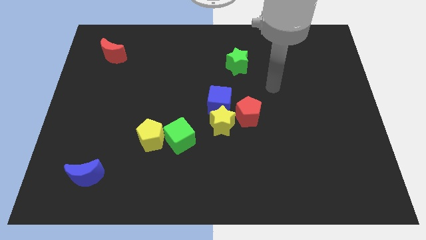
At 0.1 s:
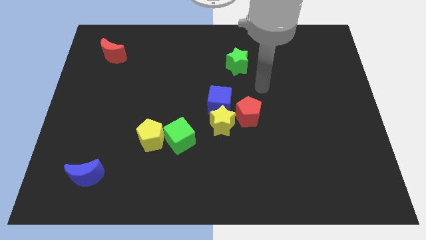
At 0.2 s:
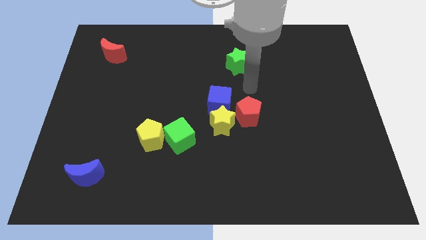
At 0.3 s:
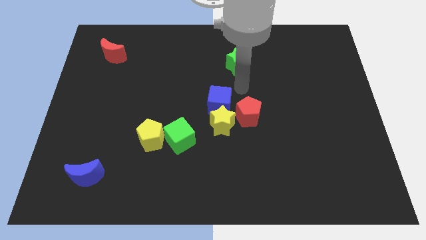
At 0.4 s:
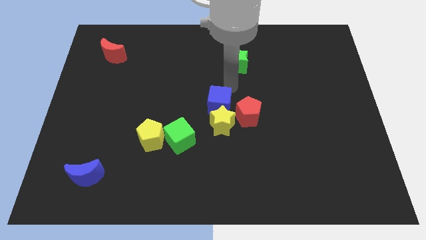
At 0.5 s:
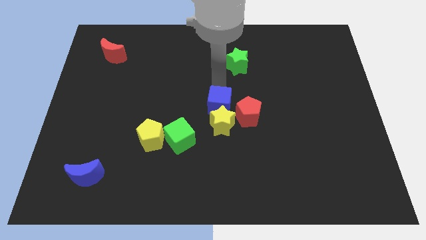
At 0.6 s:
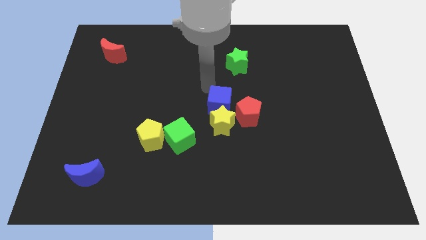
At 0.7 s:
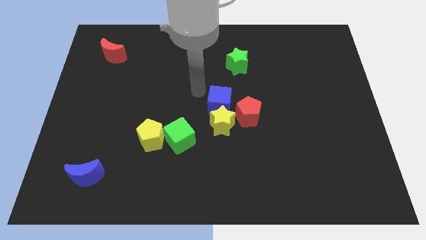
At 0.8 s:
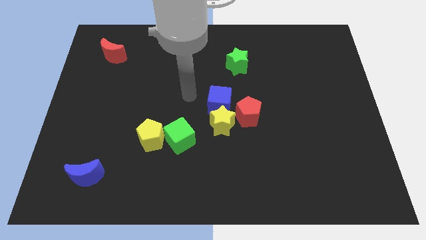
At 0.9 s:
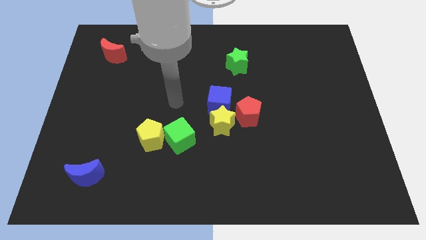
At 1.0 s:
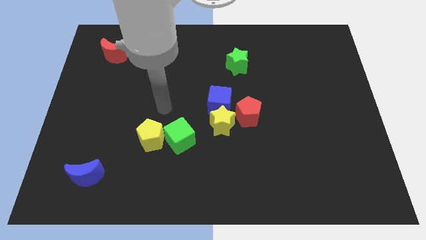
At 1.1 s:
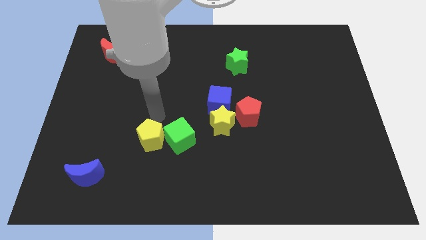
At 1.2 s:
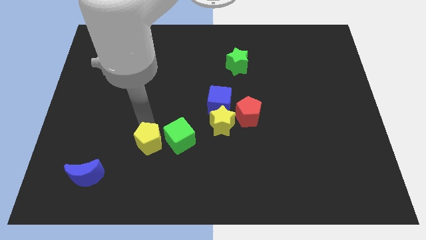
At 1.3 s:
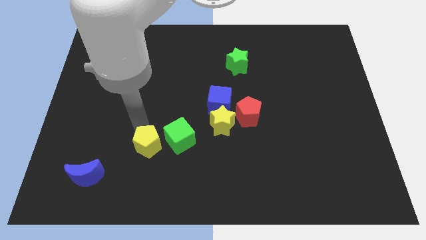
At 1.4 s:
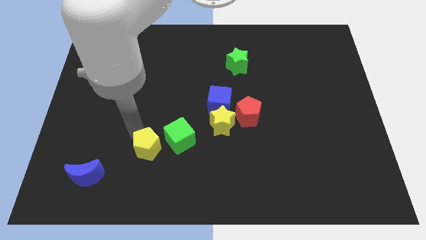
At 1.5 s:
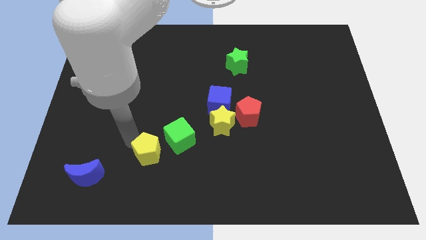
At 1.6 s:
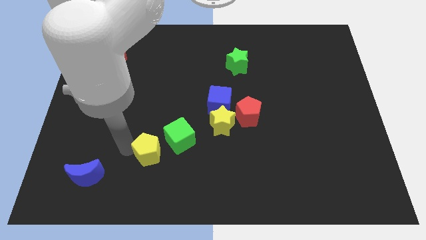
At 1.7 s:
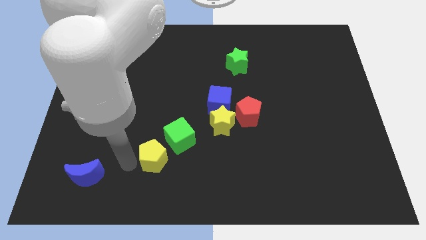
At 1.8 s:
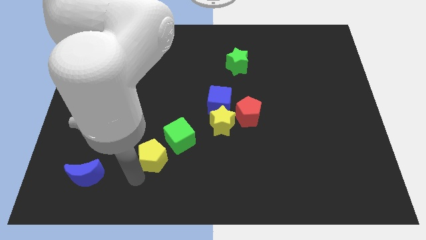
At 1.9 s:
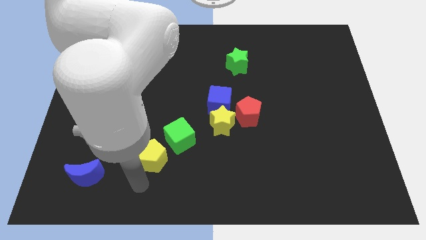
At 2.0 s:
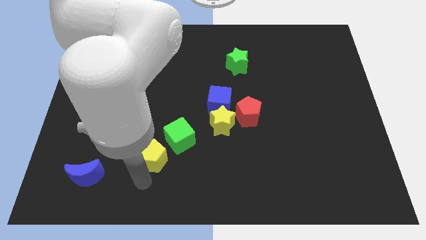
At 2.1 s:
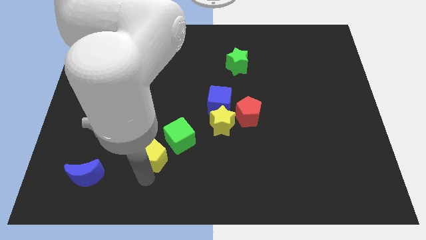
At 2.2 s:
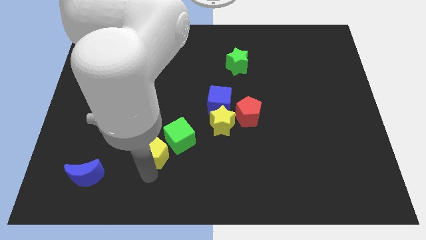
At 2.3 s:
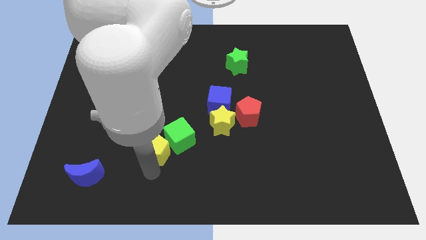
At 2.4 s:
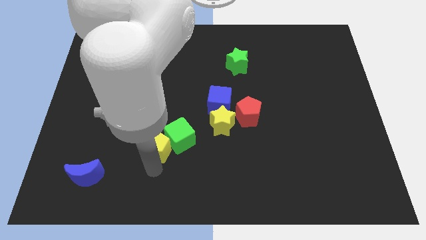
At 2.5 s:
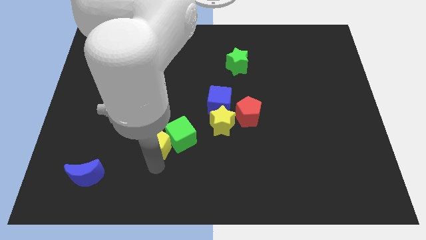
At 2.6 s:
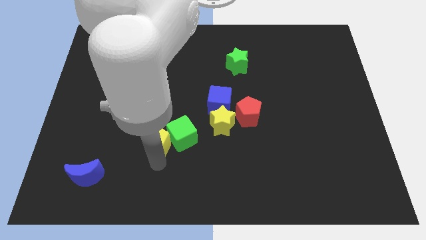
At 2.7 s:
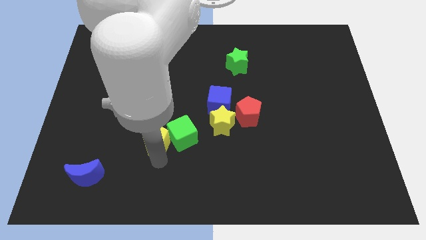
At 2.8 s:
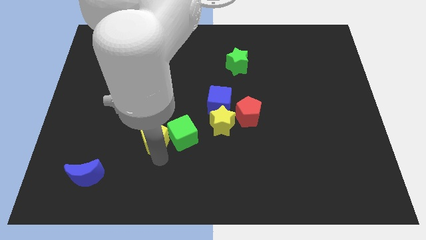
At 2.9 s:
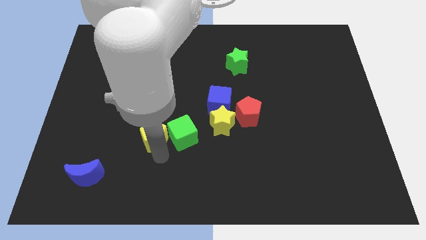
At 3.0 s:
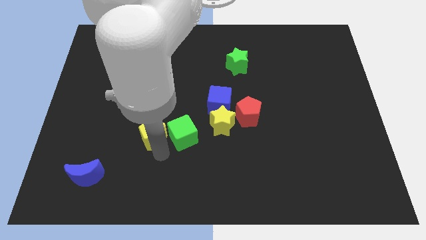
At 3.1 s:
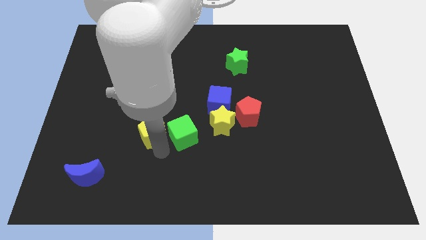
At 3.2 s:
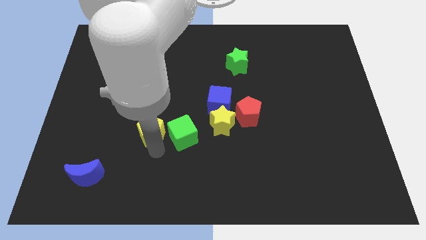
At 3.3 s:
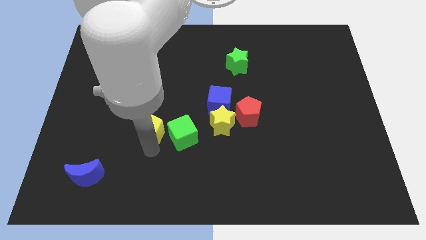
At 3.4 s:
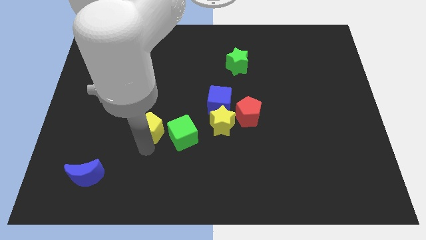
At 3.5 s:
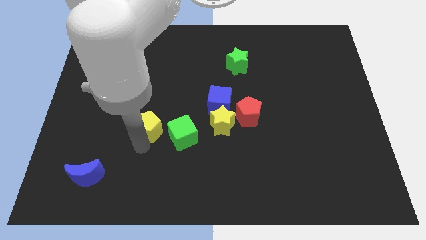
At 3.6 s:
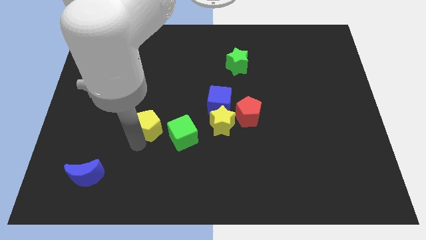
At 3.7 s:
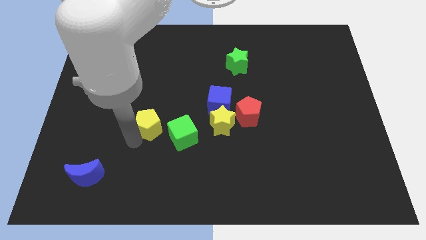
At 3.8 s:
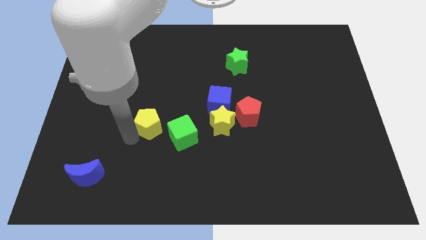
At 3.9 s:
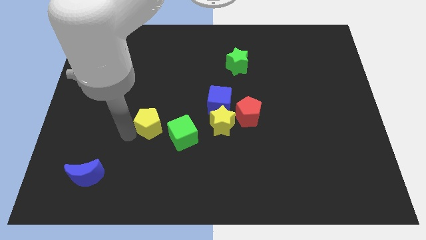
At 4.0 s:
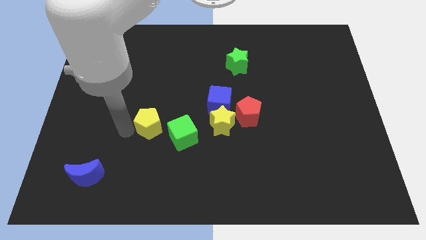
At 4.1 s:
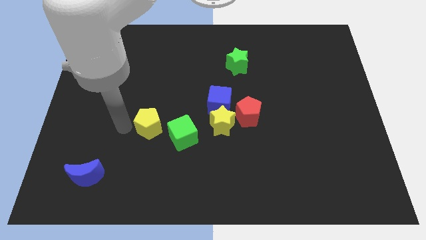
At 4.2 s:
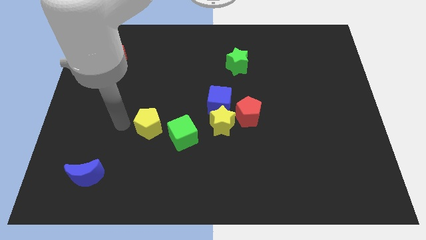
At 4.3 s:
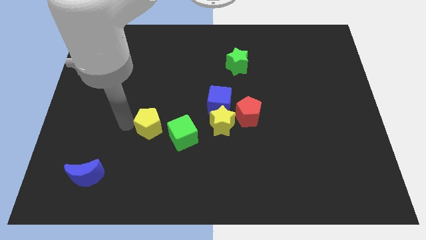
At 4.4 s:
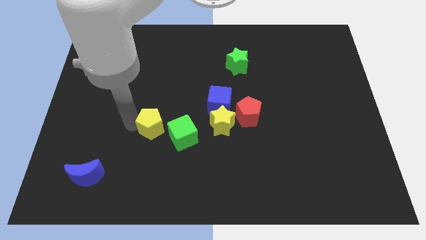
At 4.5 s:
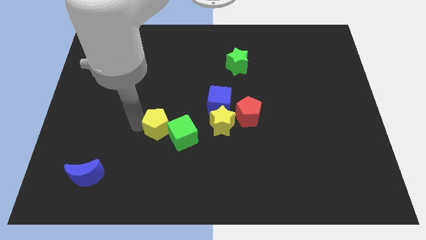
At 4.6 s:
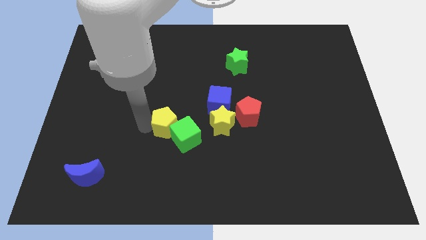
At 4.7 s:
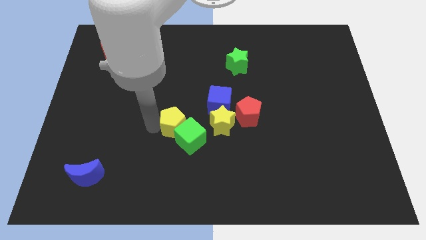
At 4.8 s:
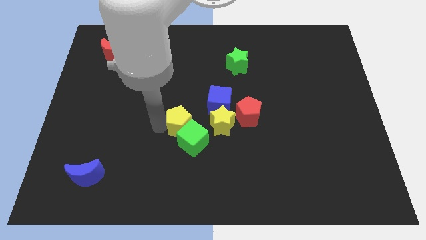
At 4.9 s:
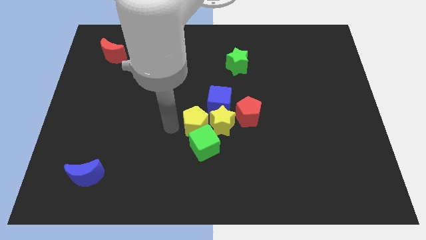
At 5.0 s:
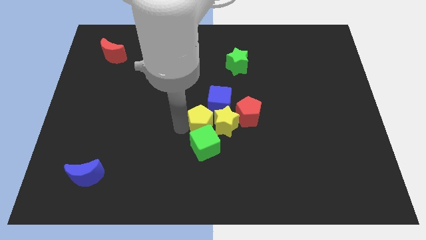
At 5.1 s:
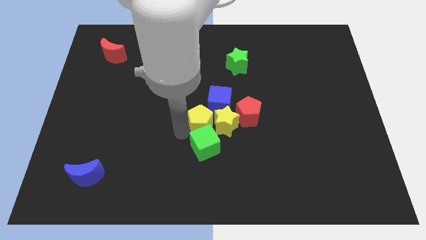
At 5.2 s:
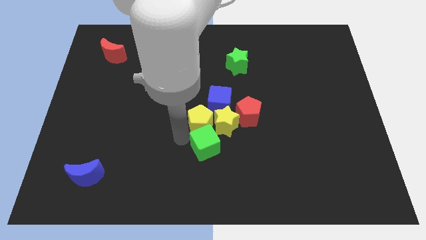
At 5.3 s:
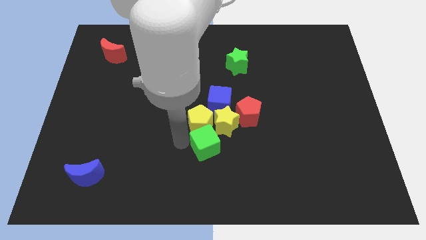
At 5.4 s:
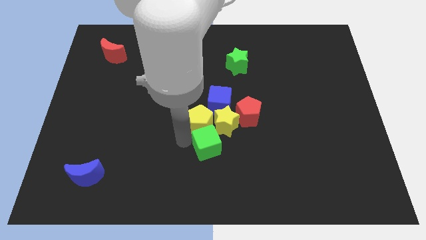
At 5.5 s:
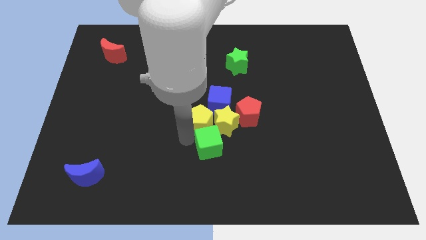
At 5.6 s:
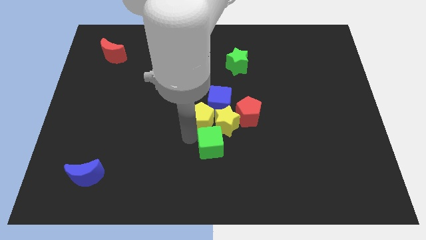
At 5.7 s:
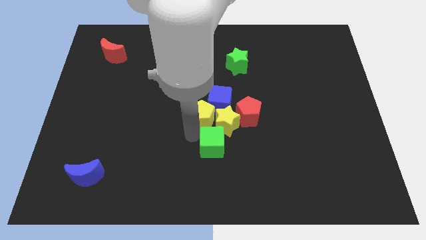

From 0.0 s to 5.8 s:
move the yellow pentagon to the blue cube

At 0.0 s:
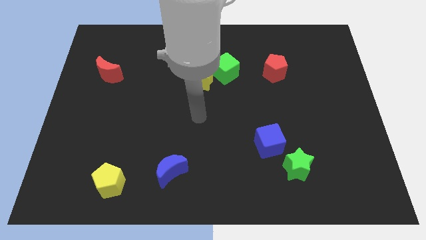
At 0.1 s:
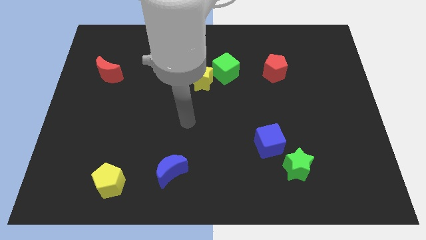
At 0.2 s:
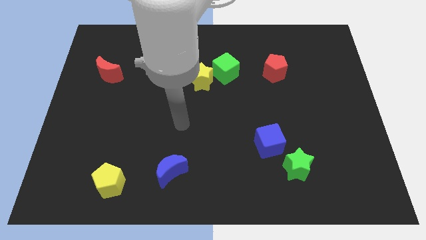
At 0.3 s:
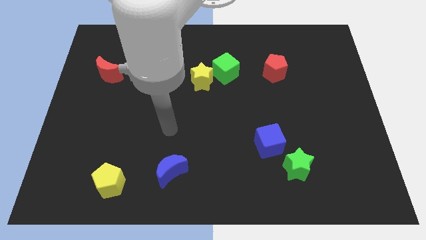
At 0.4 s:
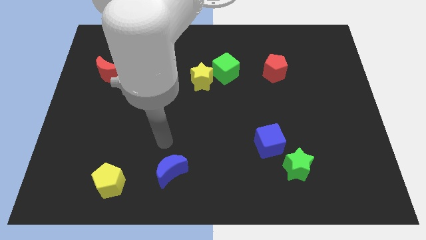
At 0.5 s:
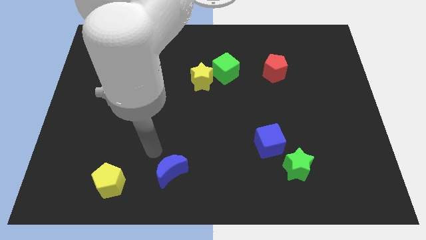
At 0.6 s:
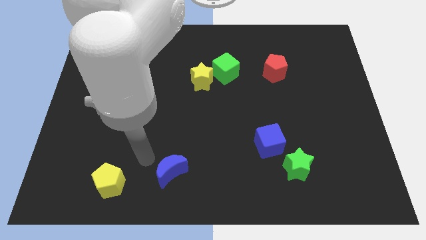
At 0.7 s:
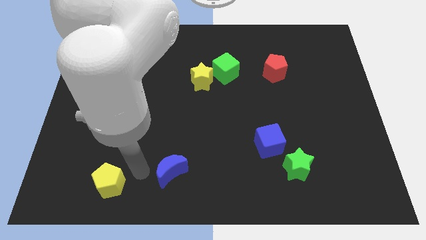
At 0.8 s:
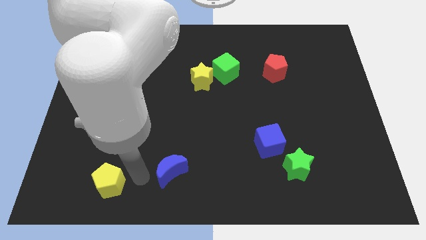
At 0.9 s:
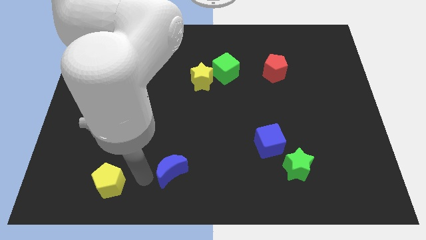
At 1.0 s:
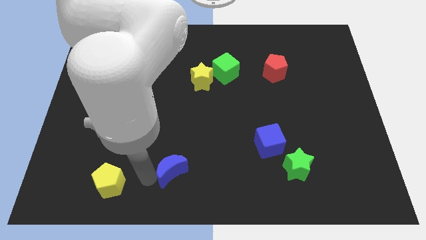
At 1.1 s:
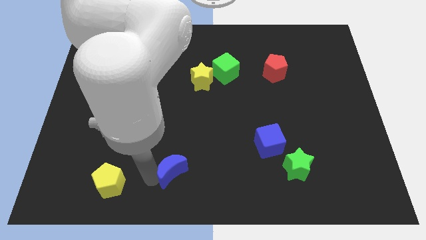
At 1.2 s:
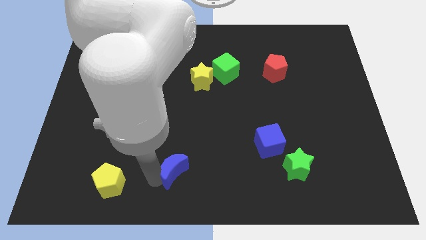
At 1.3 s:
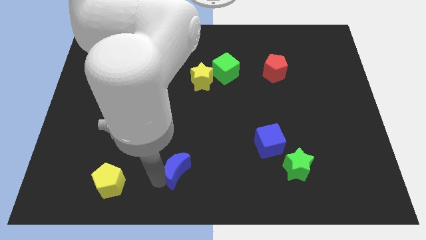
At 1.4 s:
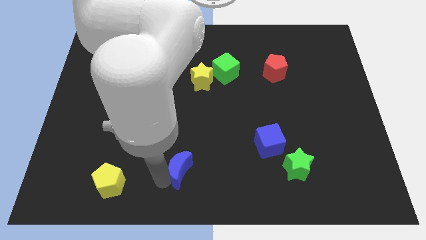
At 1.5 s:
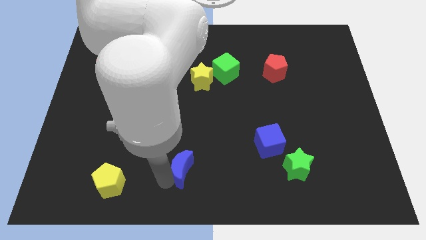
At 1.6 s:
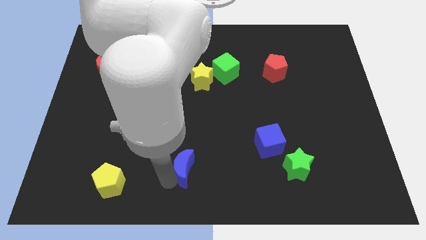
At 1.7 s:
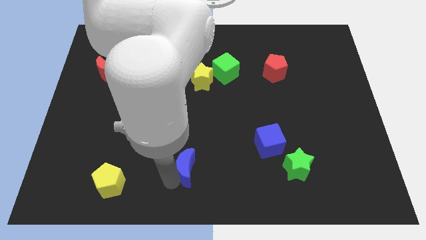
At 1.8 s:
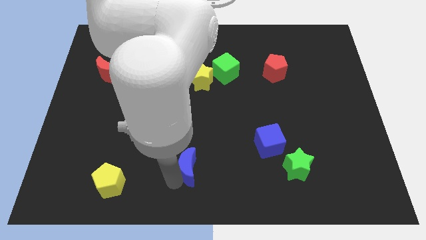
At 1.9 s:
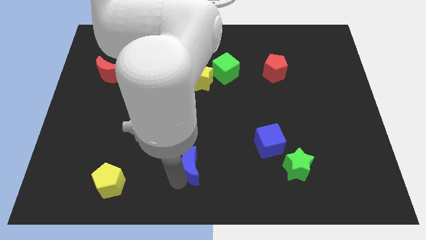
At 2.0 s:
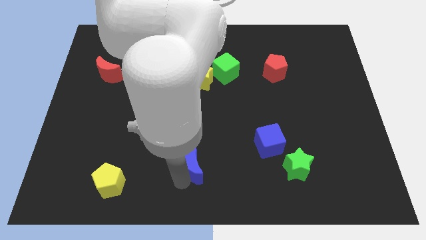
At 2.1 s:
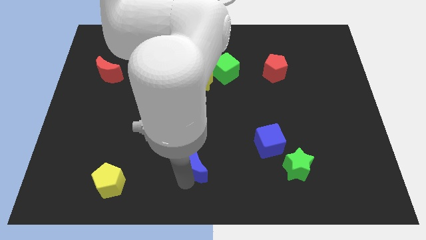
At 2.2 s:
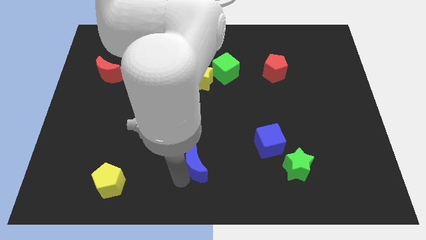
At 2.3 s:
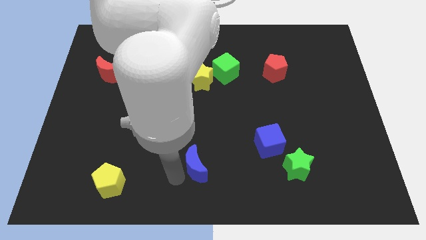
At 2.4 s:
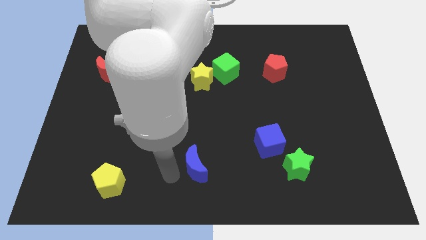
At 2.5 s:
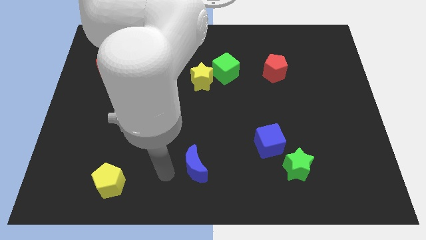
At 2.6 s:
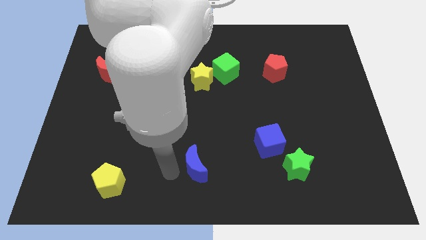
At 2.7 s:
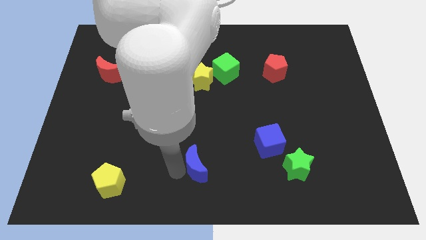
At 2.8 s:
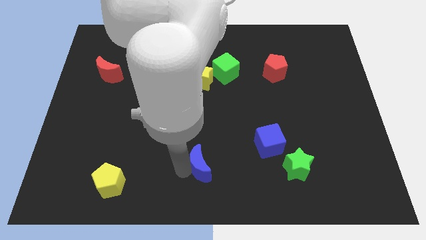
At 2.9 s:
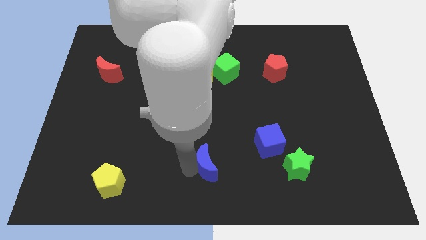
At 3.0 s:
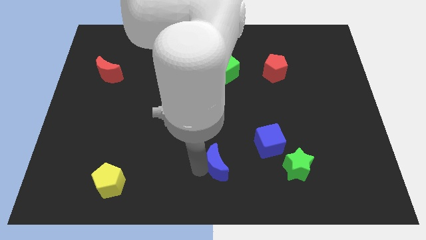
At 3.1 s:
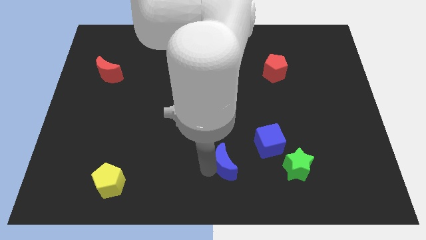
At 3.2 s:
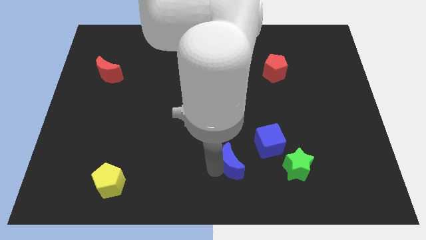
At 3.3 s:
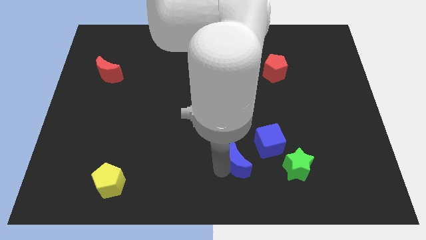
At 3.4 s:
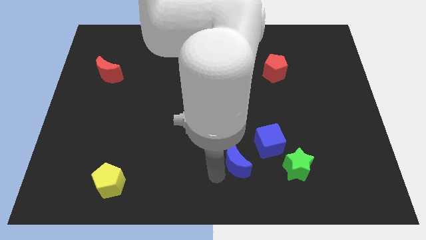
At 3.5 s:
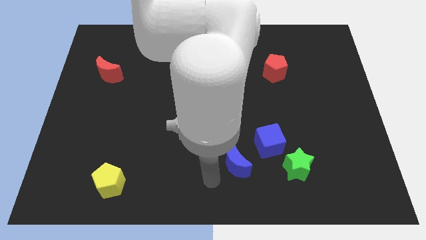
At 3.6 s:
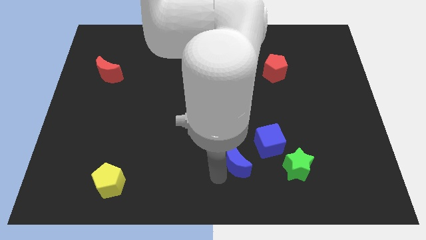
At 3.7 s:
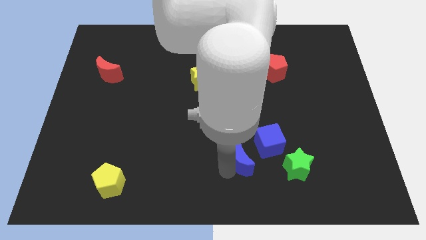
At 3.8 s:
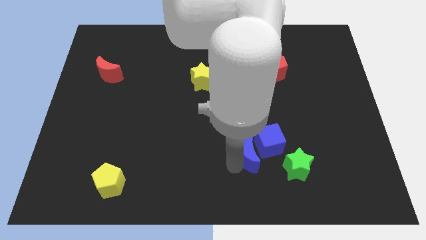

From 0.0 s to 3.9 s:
push the blue moon close to the blue cube
